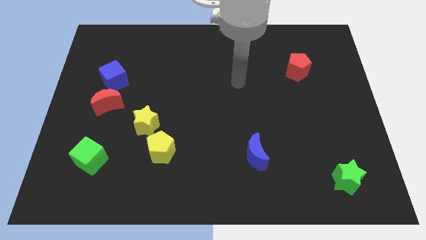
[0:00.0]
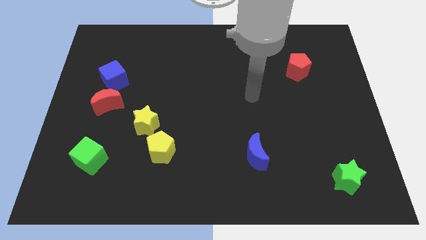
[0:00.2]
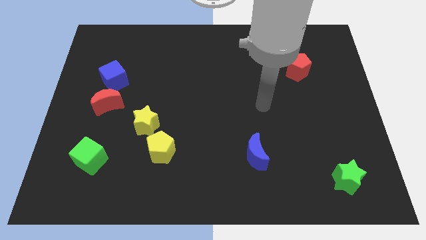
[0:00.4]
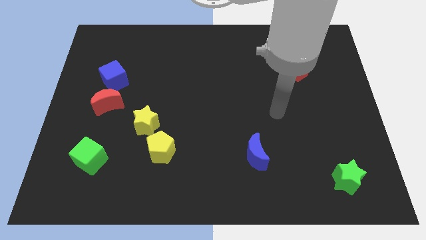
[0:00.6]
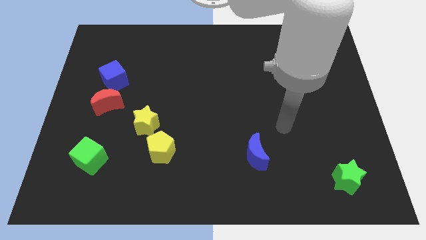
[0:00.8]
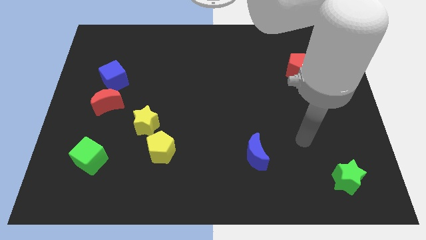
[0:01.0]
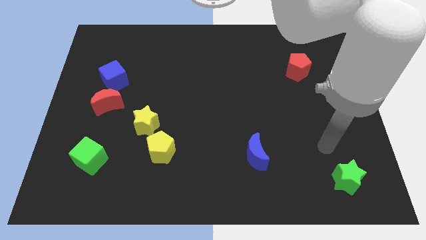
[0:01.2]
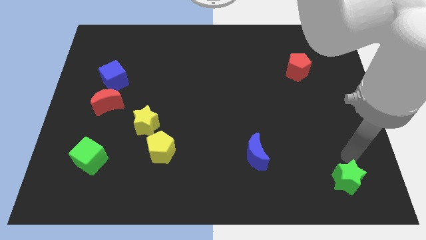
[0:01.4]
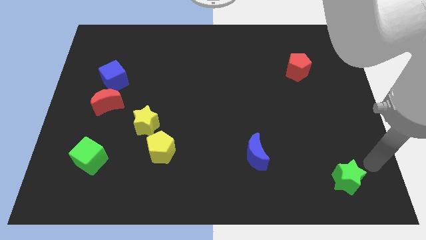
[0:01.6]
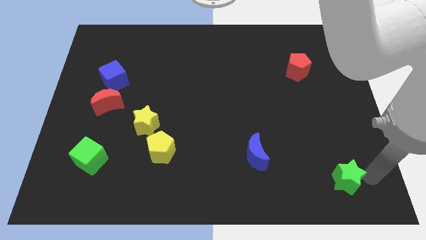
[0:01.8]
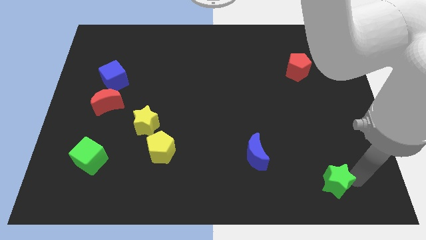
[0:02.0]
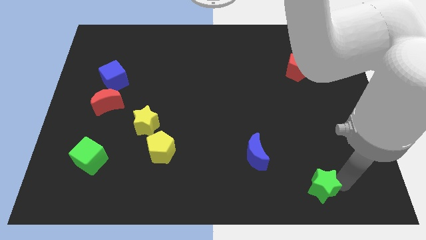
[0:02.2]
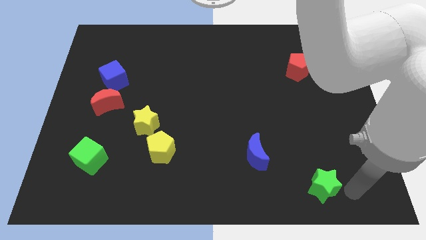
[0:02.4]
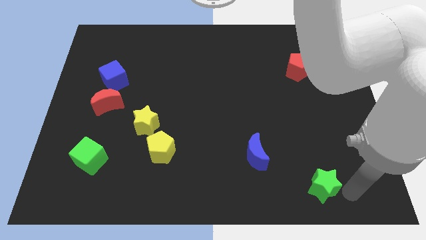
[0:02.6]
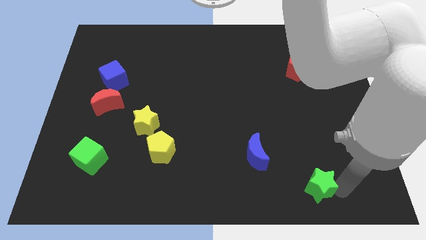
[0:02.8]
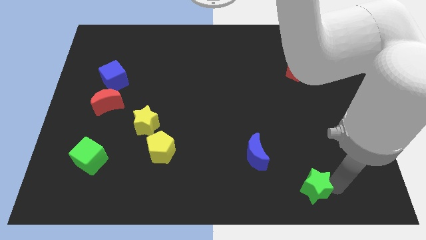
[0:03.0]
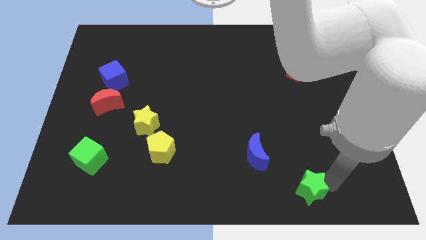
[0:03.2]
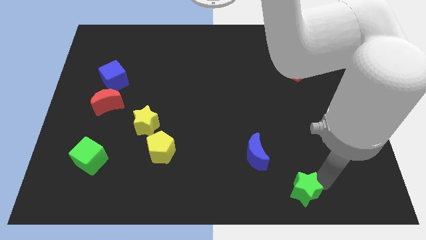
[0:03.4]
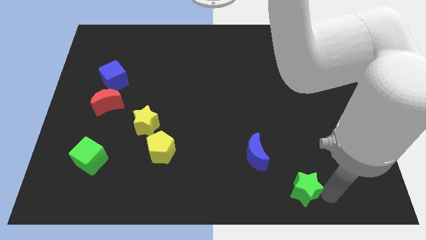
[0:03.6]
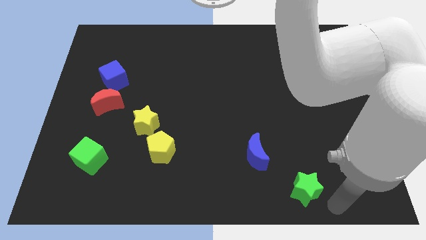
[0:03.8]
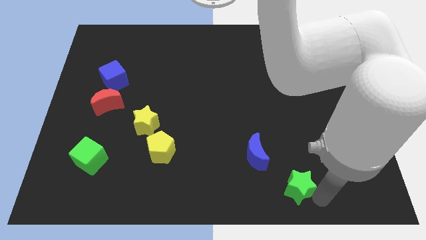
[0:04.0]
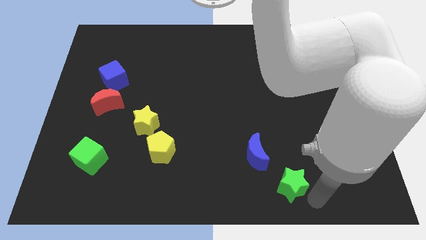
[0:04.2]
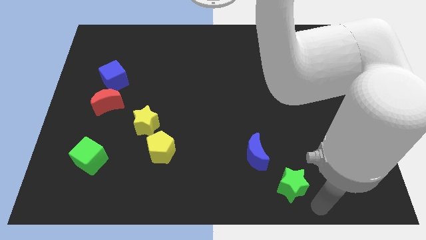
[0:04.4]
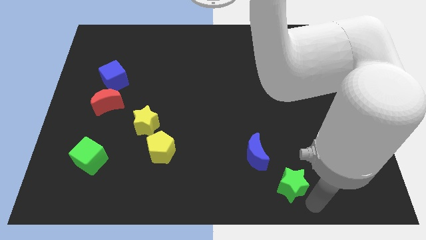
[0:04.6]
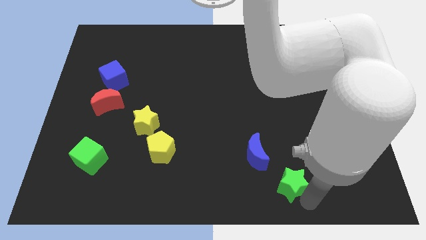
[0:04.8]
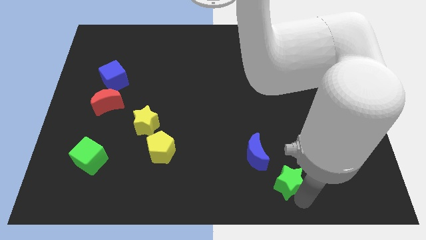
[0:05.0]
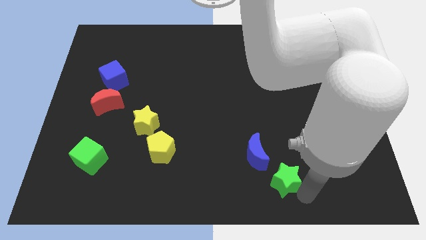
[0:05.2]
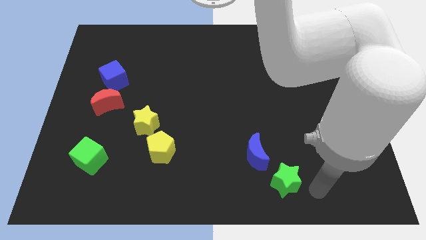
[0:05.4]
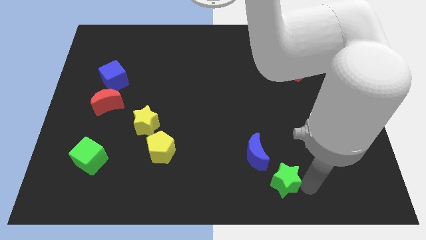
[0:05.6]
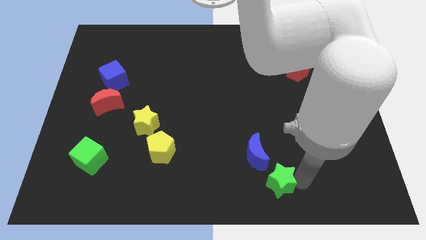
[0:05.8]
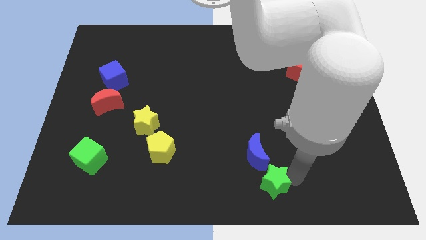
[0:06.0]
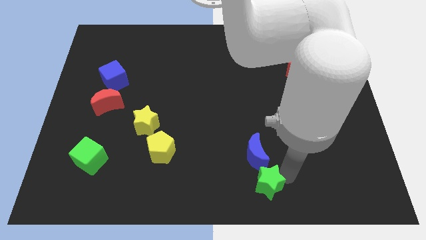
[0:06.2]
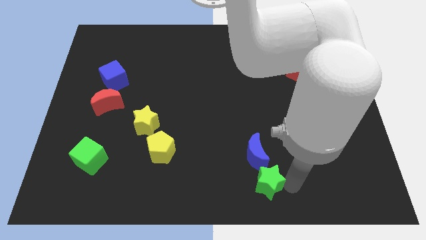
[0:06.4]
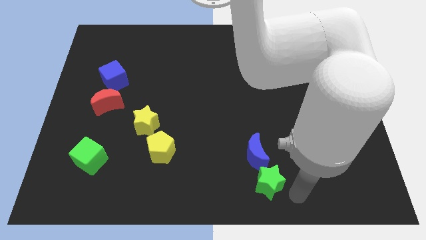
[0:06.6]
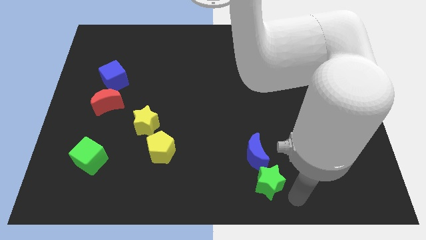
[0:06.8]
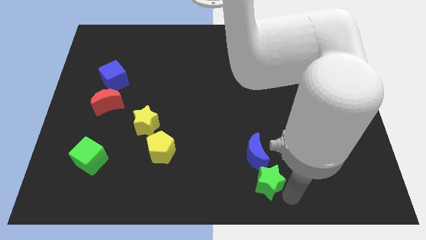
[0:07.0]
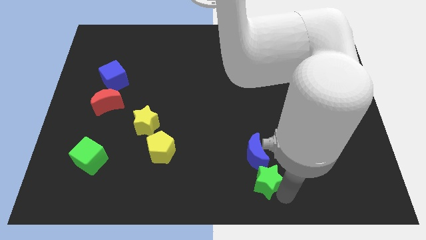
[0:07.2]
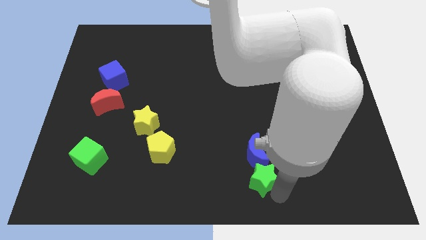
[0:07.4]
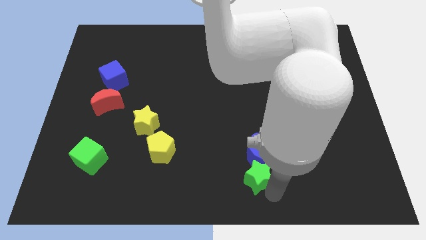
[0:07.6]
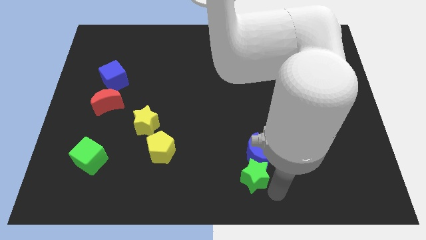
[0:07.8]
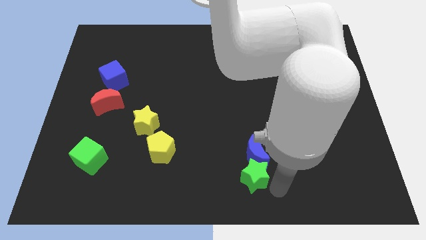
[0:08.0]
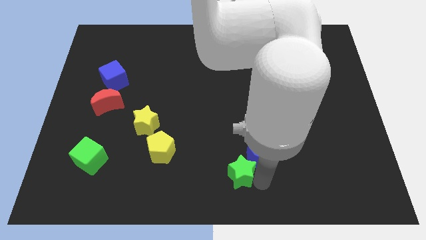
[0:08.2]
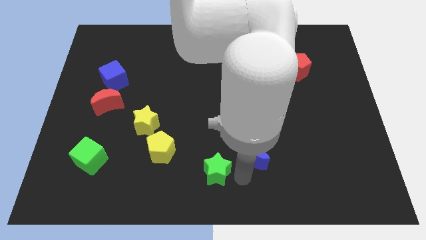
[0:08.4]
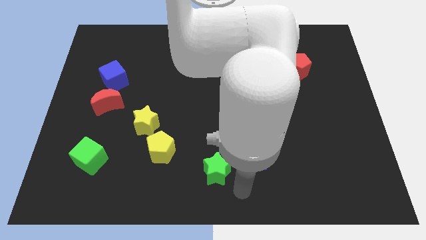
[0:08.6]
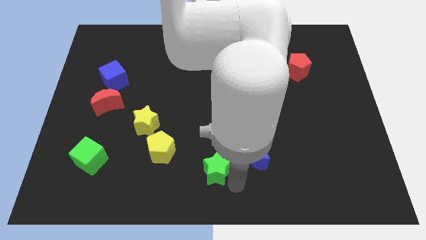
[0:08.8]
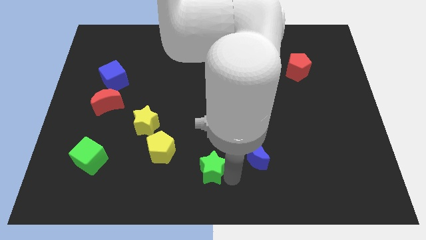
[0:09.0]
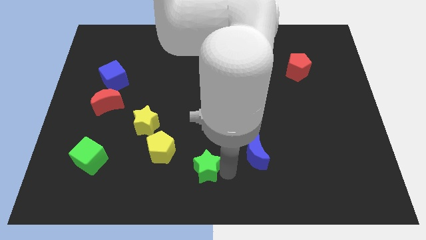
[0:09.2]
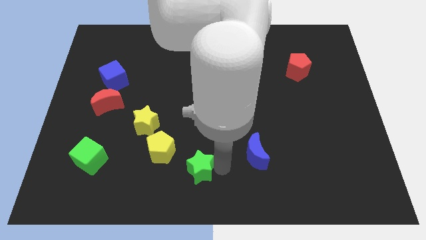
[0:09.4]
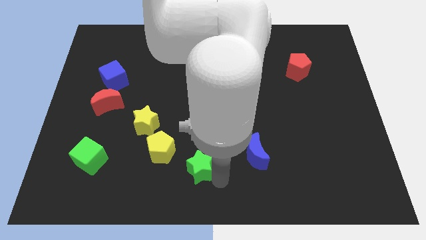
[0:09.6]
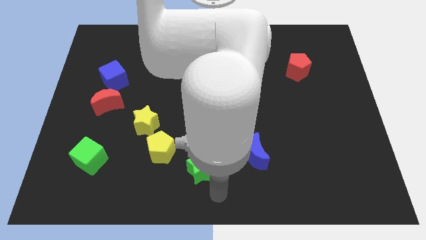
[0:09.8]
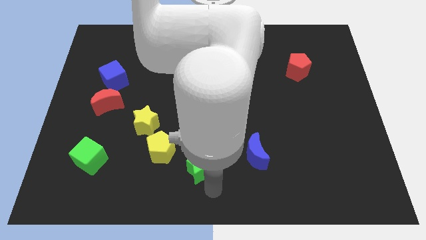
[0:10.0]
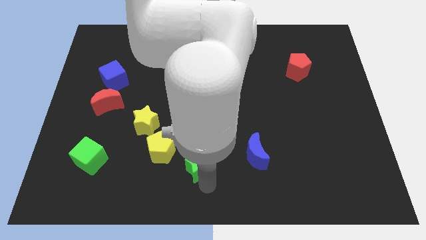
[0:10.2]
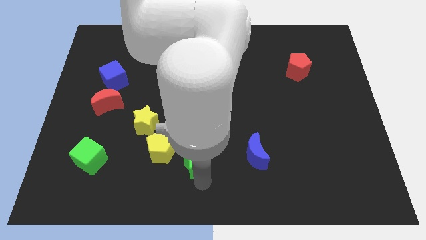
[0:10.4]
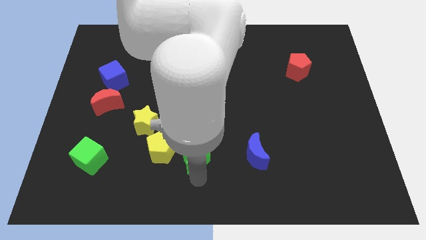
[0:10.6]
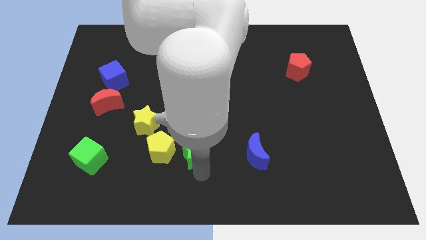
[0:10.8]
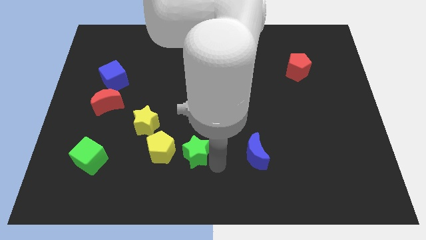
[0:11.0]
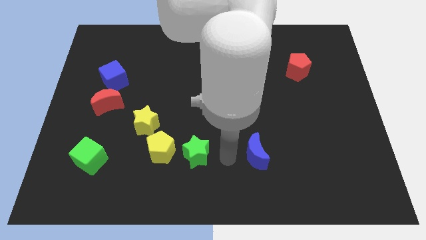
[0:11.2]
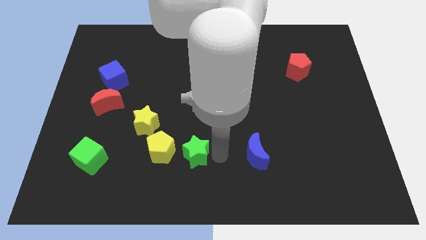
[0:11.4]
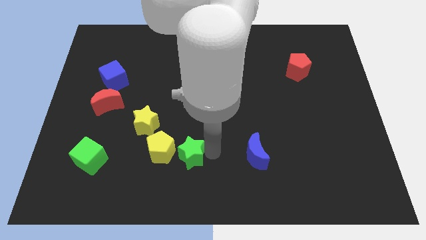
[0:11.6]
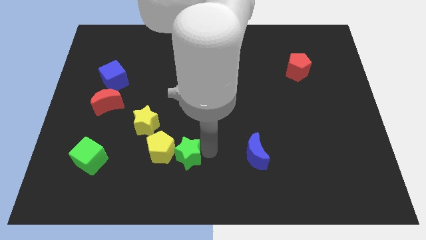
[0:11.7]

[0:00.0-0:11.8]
push the green star towards the yellow pentagon

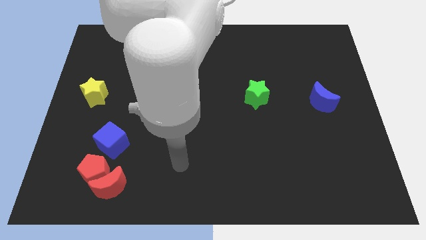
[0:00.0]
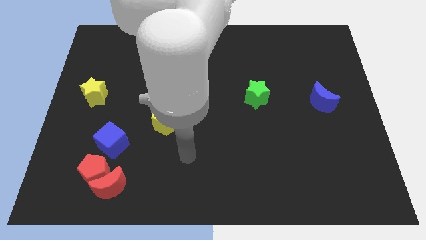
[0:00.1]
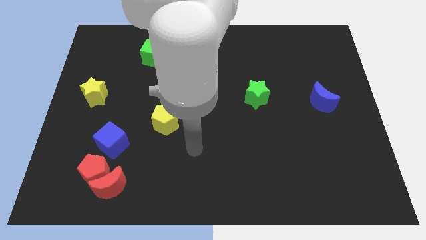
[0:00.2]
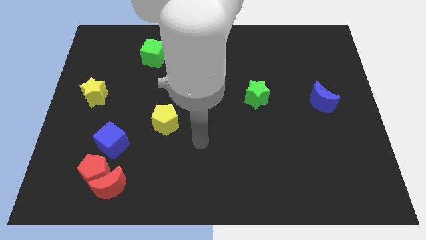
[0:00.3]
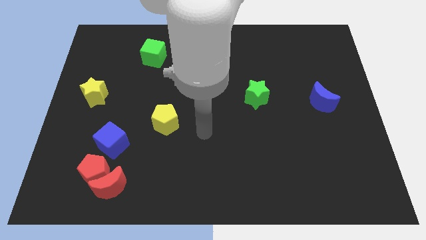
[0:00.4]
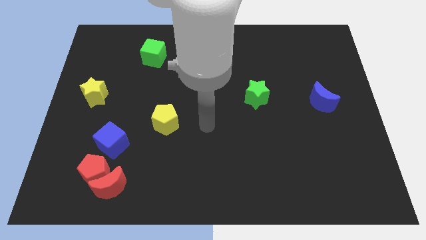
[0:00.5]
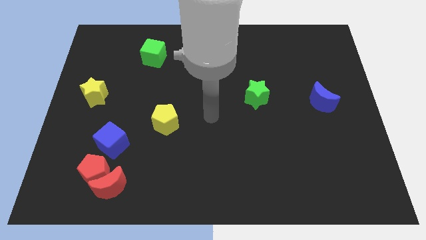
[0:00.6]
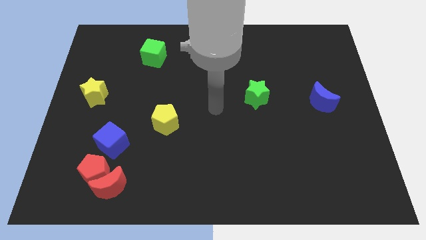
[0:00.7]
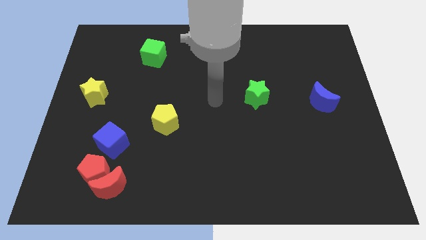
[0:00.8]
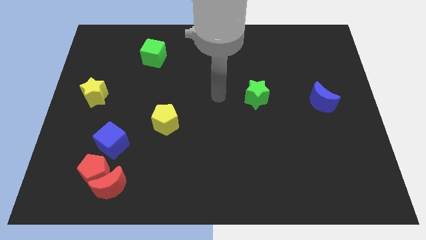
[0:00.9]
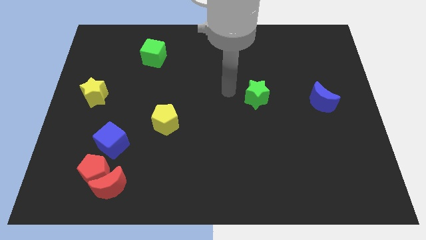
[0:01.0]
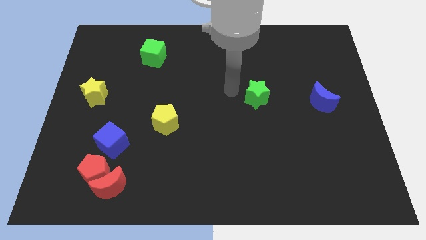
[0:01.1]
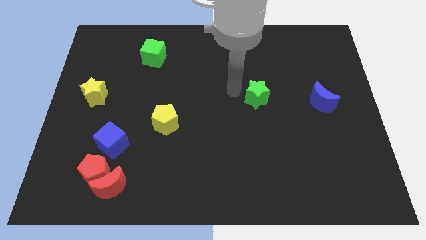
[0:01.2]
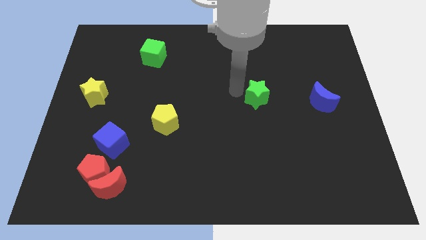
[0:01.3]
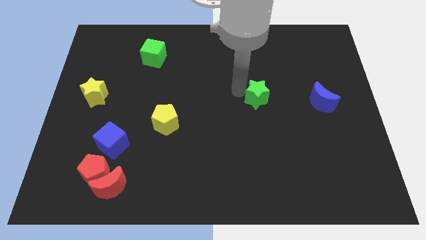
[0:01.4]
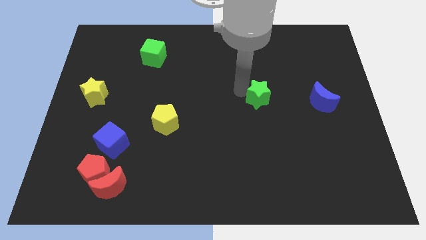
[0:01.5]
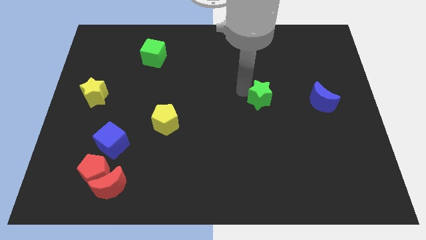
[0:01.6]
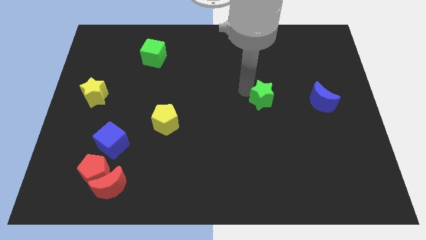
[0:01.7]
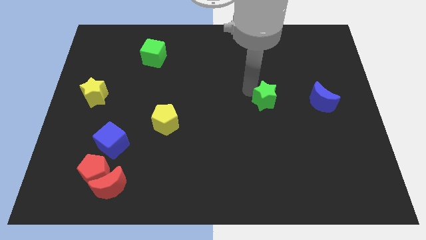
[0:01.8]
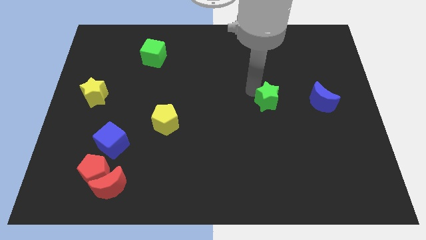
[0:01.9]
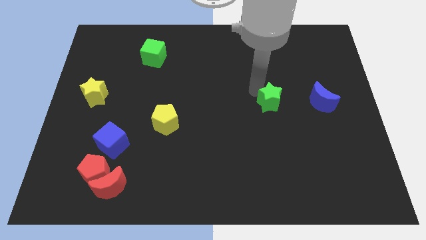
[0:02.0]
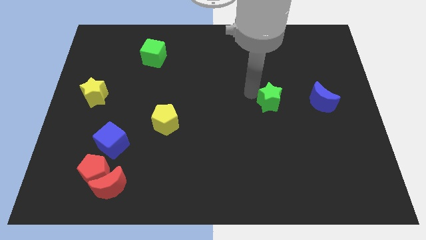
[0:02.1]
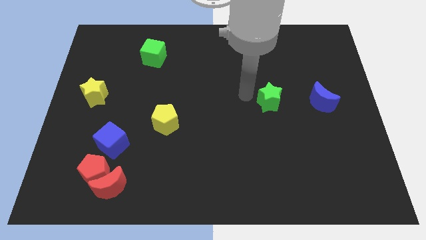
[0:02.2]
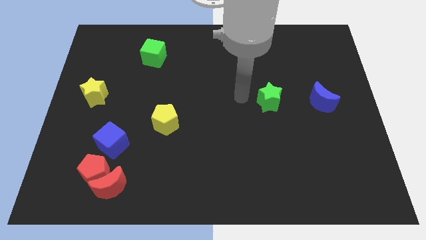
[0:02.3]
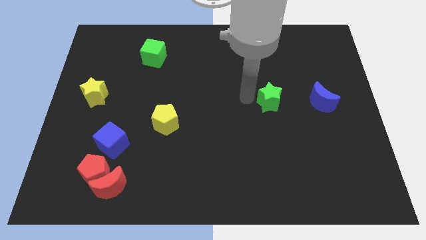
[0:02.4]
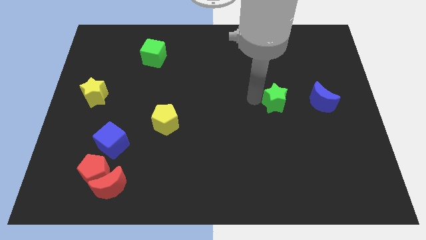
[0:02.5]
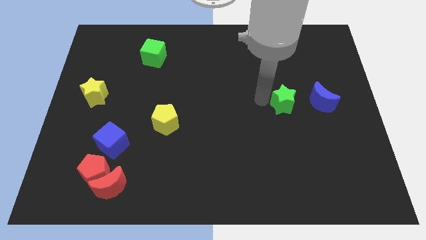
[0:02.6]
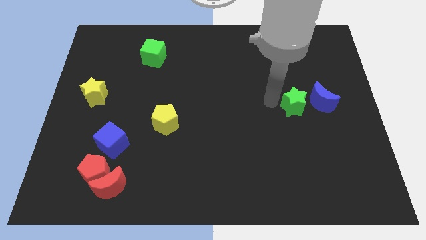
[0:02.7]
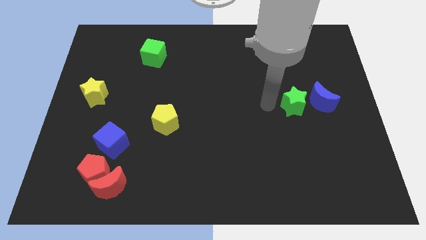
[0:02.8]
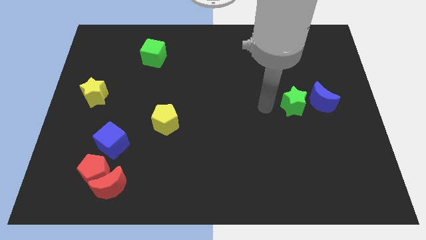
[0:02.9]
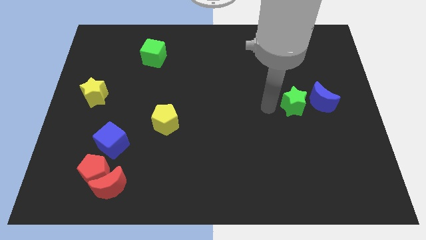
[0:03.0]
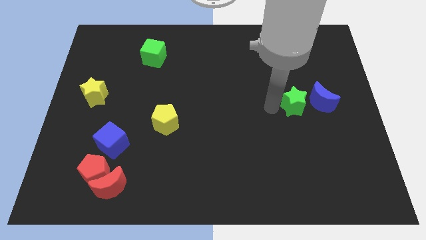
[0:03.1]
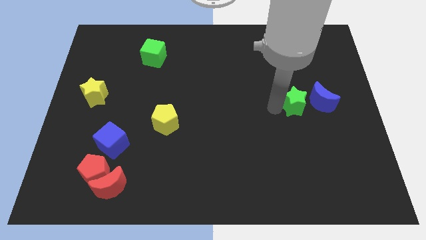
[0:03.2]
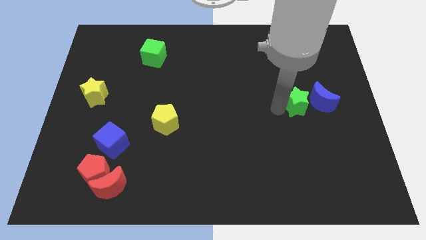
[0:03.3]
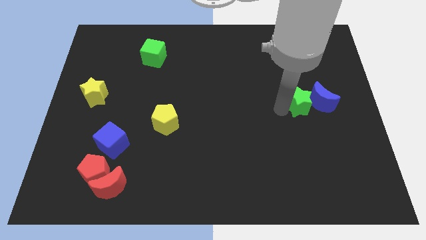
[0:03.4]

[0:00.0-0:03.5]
put the green star towards the blue moon
